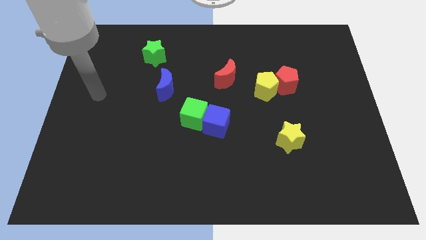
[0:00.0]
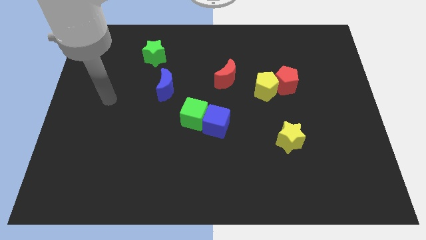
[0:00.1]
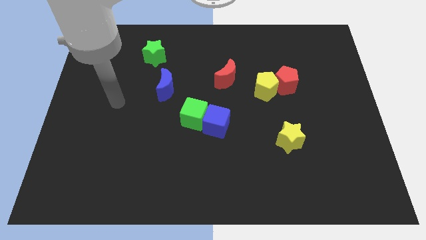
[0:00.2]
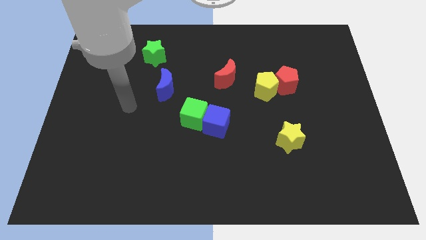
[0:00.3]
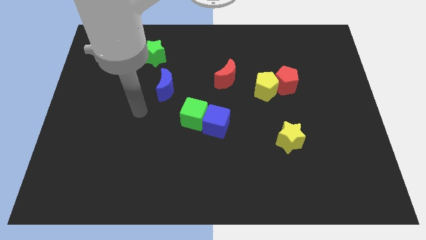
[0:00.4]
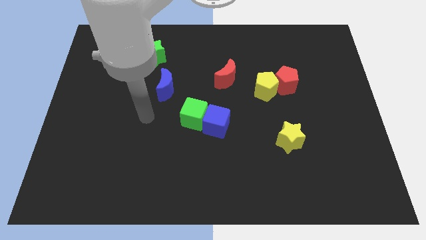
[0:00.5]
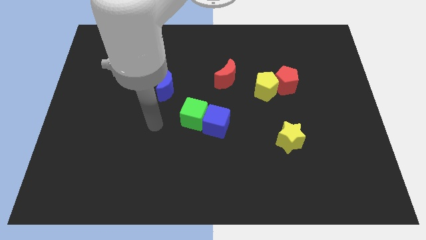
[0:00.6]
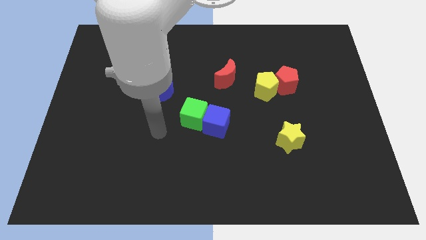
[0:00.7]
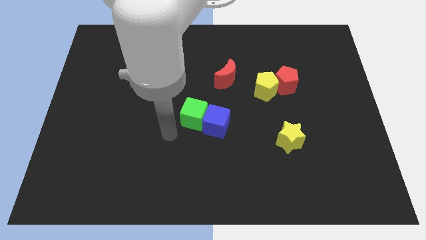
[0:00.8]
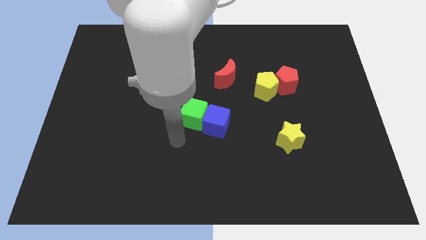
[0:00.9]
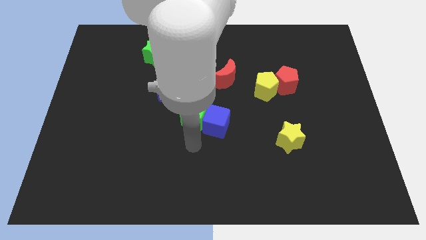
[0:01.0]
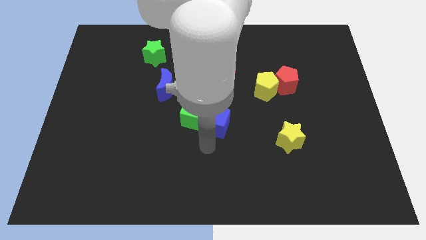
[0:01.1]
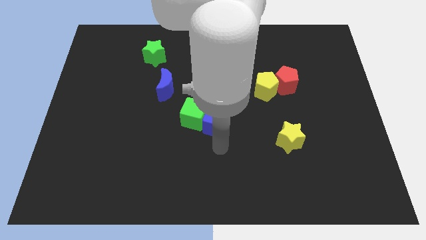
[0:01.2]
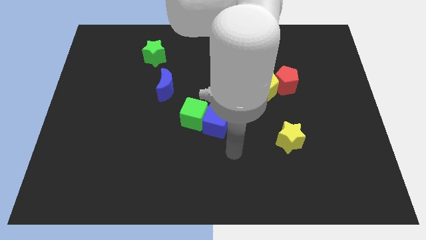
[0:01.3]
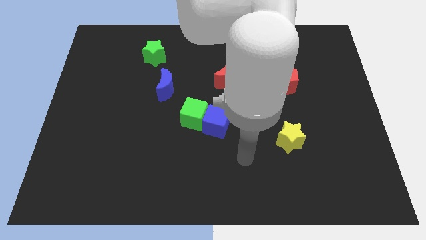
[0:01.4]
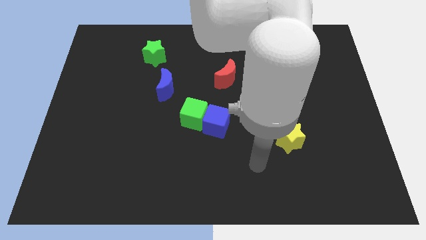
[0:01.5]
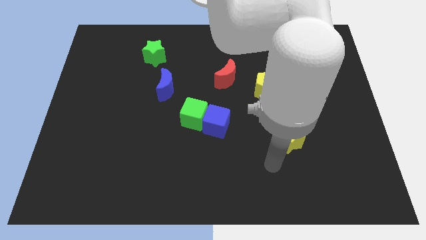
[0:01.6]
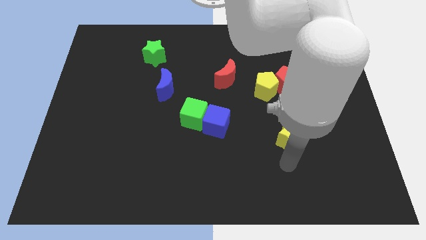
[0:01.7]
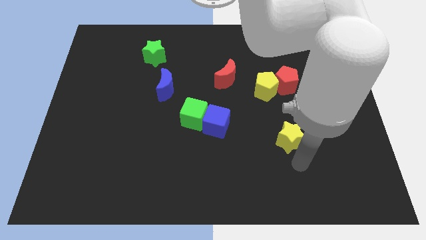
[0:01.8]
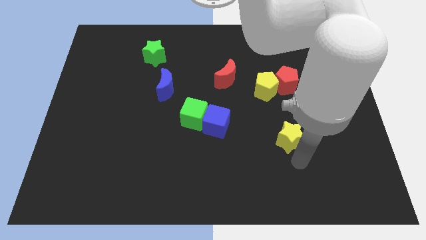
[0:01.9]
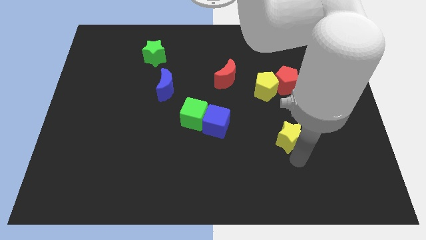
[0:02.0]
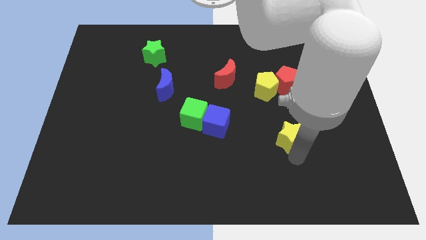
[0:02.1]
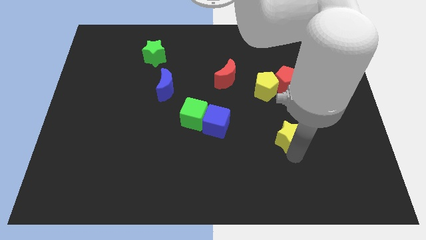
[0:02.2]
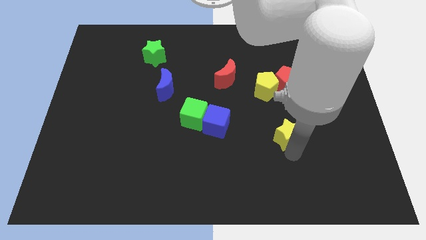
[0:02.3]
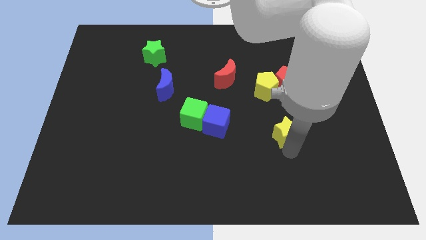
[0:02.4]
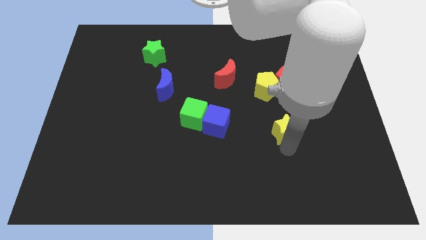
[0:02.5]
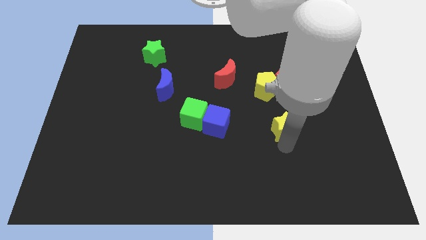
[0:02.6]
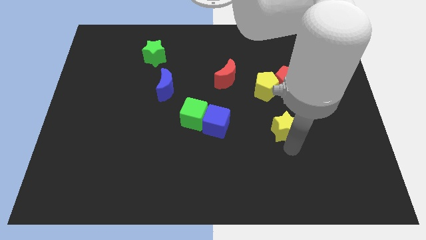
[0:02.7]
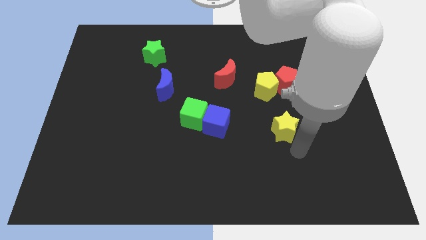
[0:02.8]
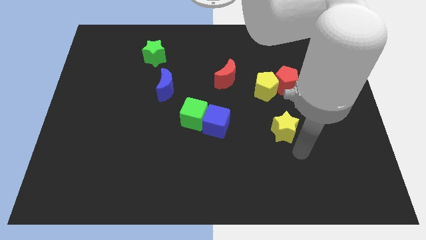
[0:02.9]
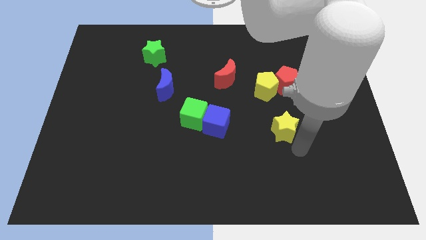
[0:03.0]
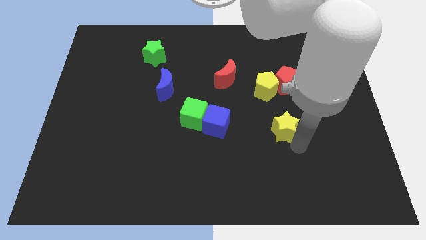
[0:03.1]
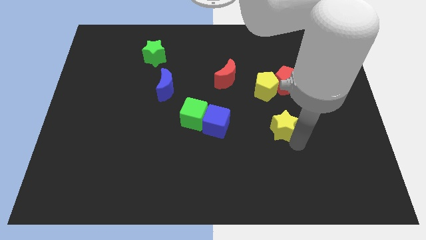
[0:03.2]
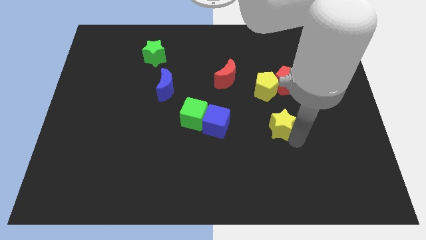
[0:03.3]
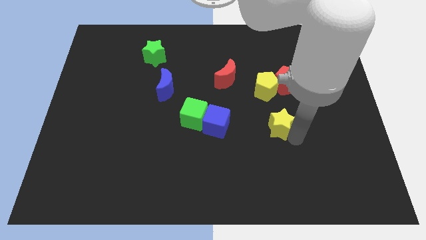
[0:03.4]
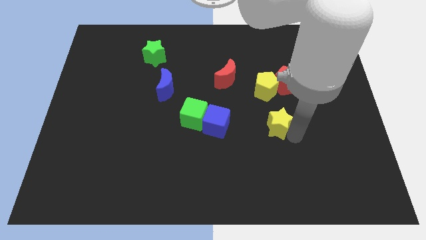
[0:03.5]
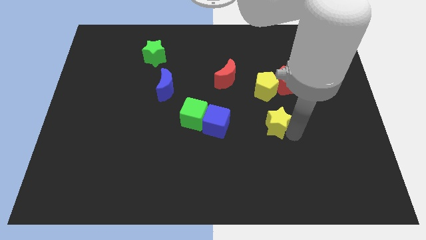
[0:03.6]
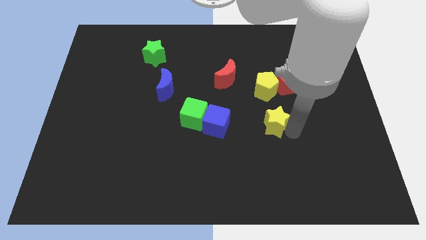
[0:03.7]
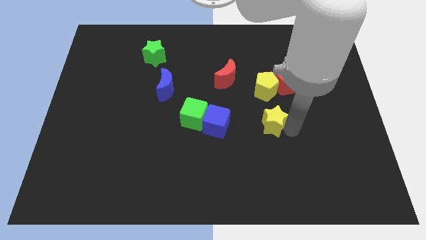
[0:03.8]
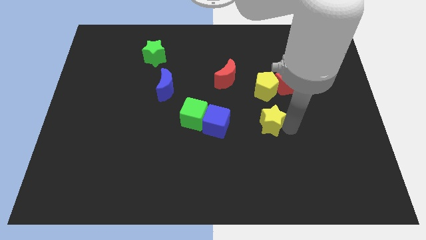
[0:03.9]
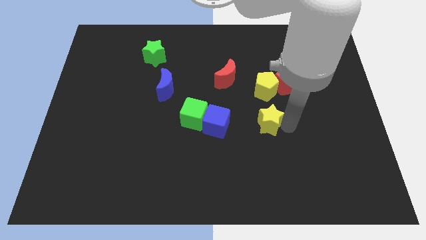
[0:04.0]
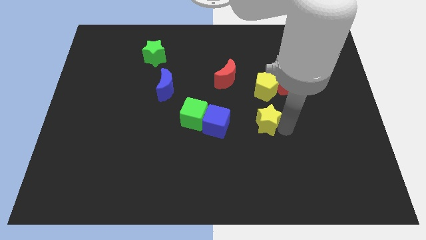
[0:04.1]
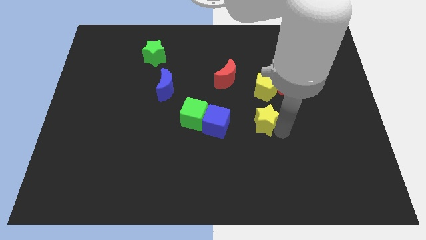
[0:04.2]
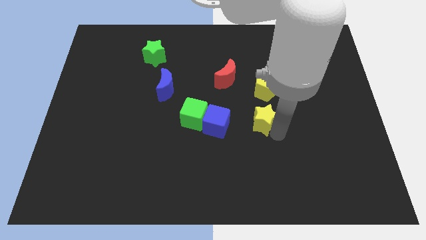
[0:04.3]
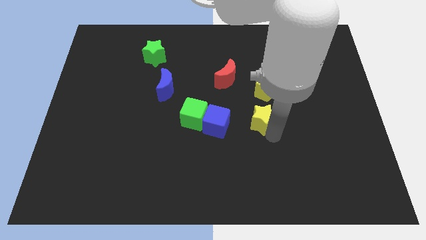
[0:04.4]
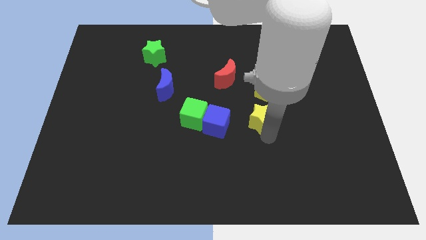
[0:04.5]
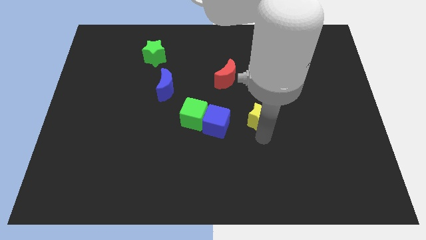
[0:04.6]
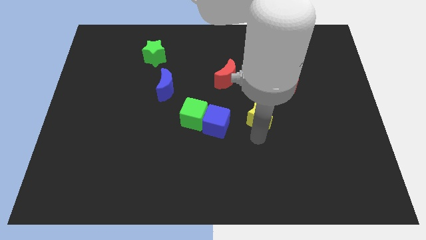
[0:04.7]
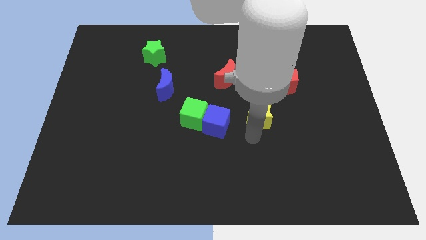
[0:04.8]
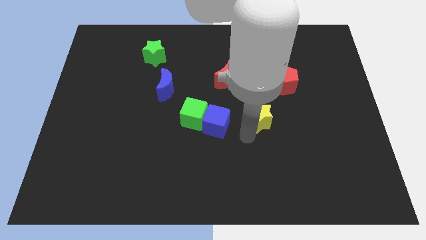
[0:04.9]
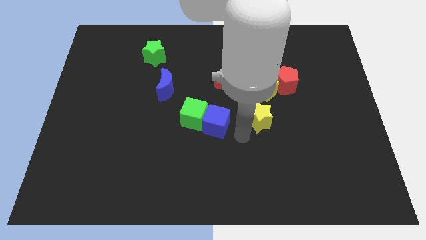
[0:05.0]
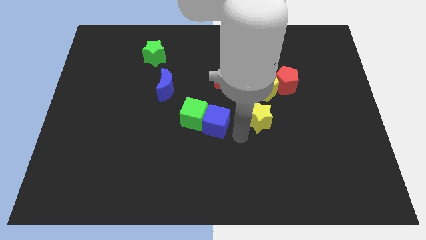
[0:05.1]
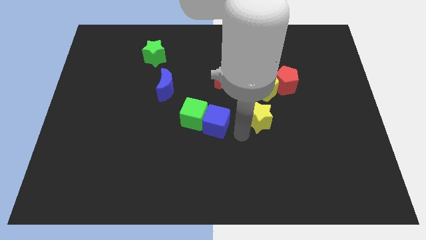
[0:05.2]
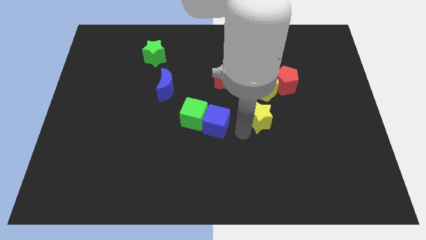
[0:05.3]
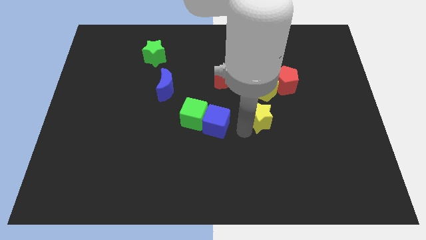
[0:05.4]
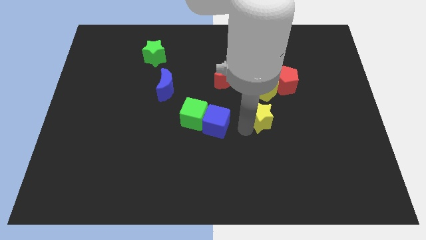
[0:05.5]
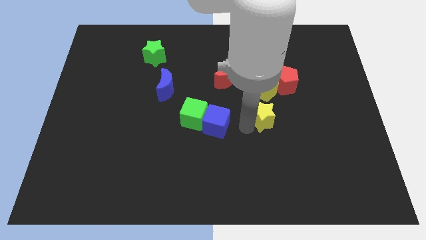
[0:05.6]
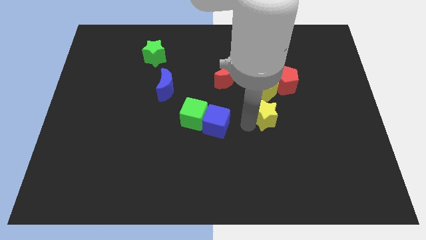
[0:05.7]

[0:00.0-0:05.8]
slide the yellow star to the bottom left of the red pentagon

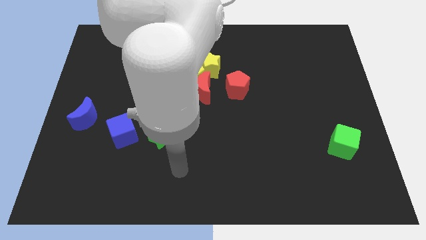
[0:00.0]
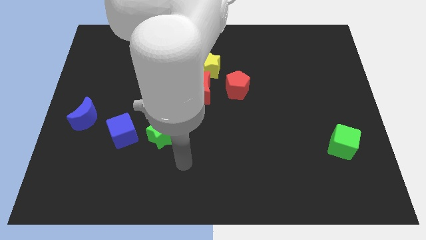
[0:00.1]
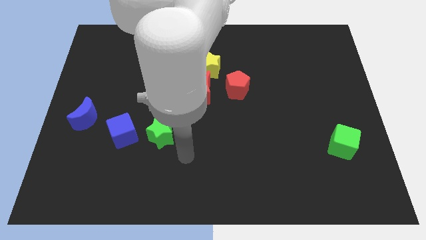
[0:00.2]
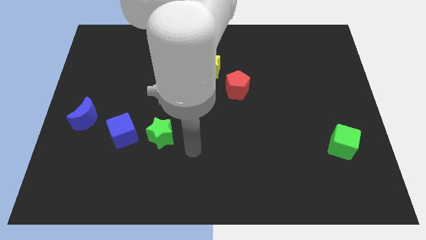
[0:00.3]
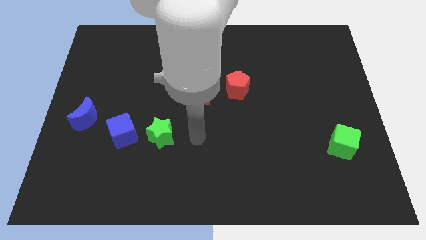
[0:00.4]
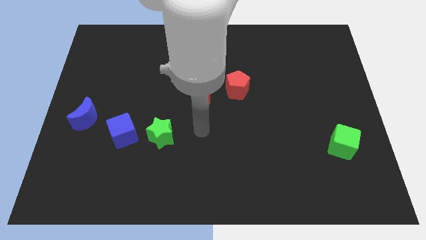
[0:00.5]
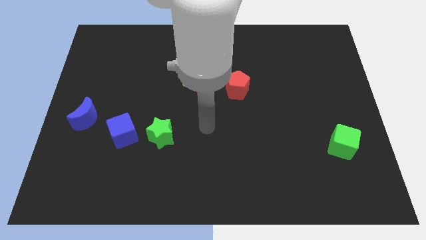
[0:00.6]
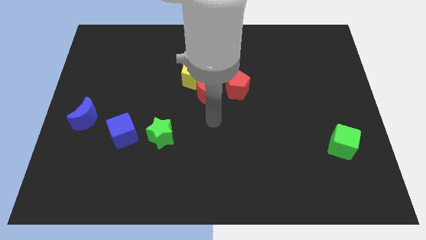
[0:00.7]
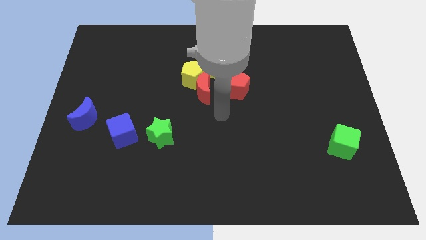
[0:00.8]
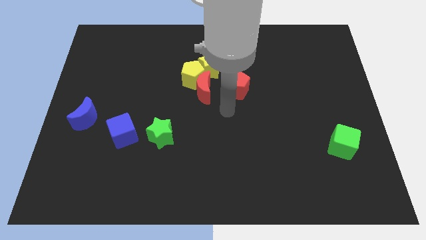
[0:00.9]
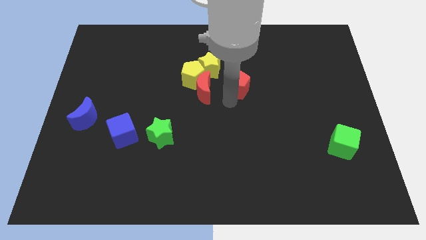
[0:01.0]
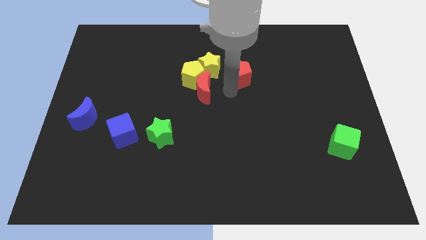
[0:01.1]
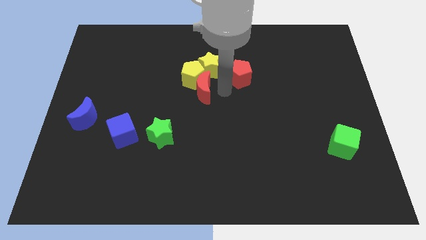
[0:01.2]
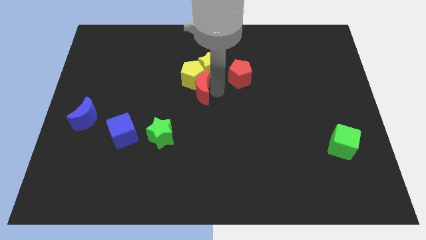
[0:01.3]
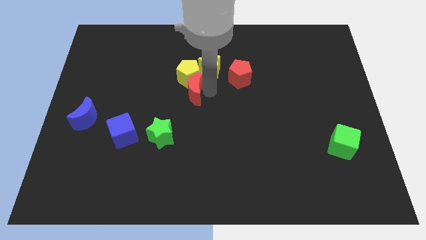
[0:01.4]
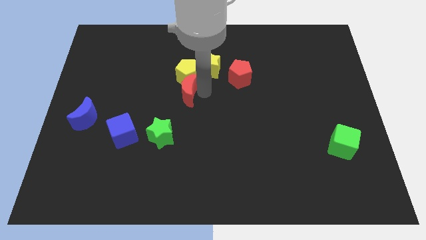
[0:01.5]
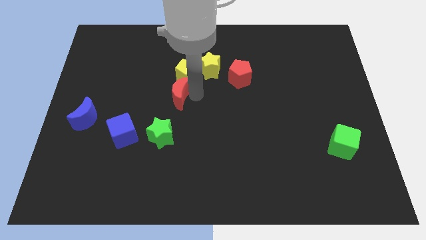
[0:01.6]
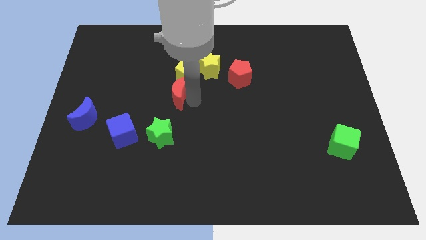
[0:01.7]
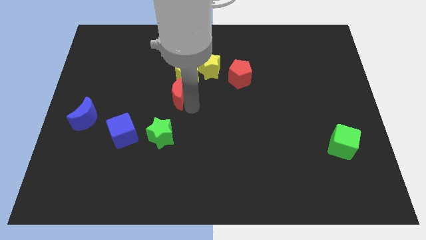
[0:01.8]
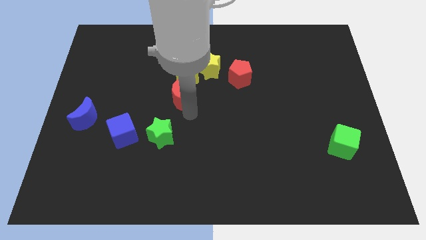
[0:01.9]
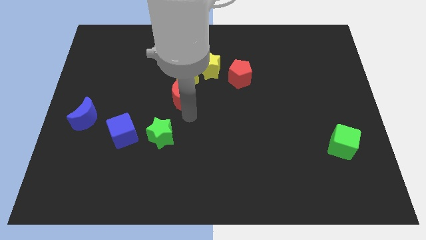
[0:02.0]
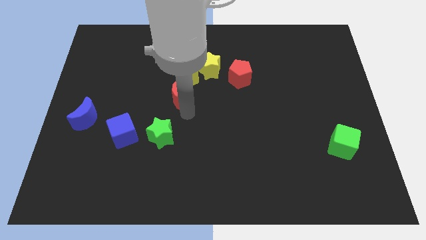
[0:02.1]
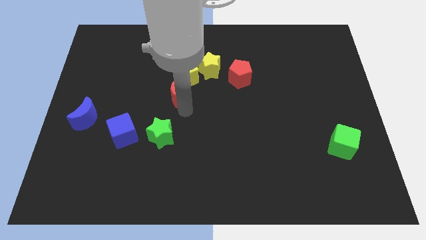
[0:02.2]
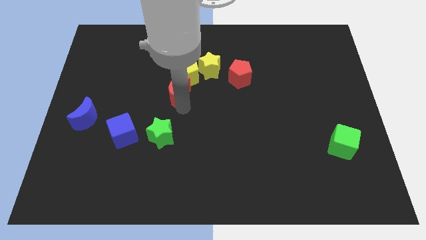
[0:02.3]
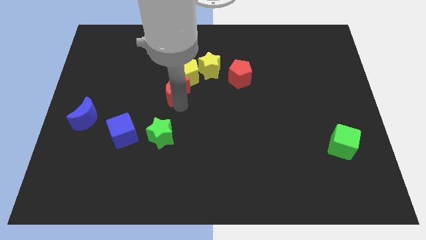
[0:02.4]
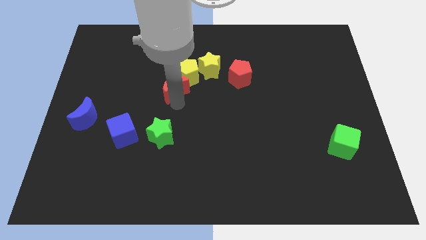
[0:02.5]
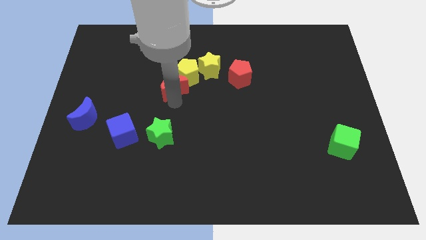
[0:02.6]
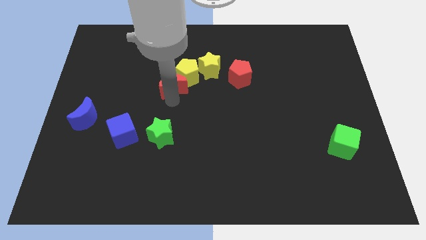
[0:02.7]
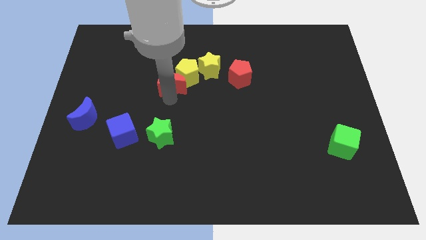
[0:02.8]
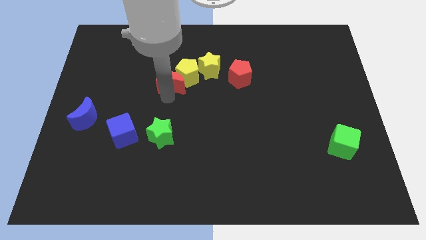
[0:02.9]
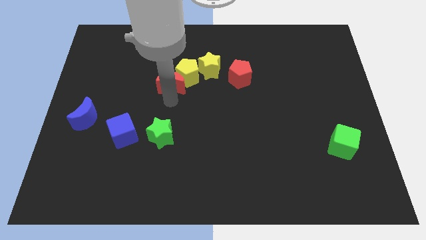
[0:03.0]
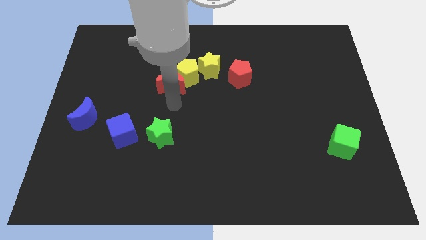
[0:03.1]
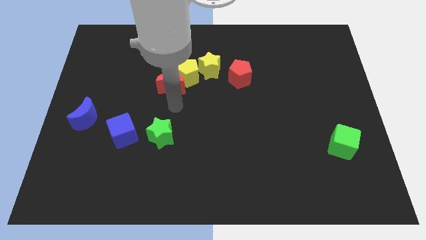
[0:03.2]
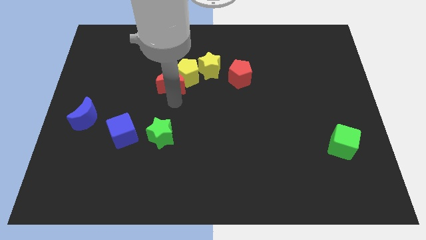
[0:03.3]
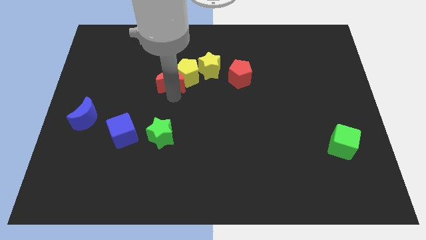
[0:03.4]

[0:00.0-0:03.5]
move the red moon just left of the yellow star
